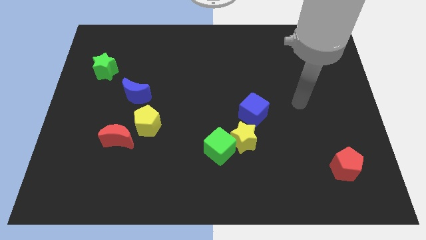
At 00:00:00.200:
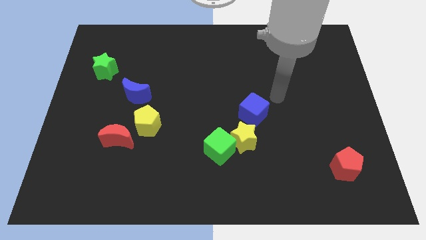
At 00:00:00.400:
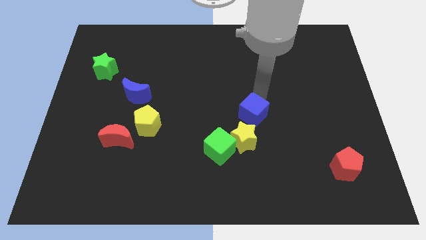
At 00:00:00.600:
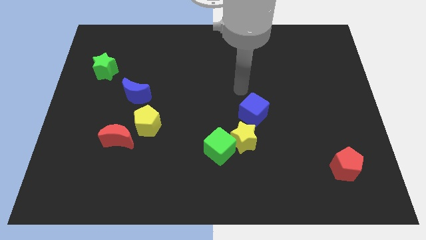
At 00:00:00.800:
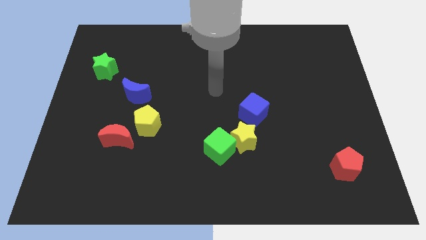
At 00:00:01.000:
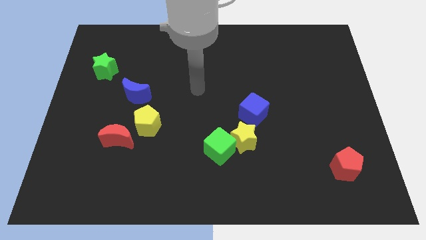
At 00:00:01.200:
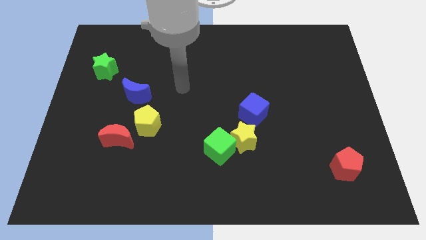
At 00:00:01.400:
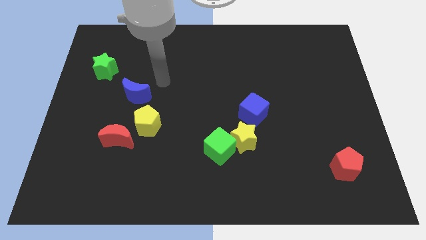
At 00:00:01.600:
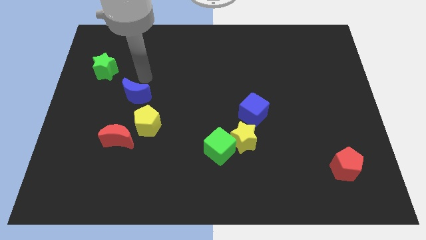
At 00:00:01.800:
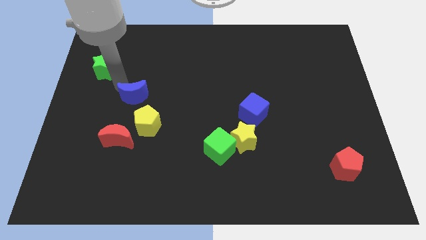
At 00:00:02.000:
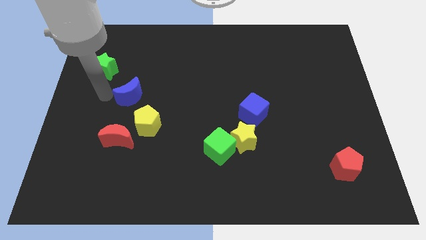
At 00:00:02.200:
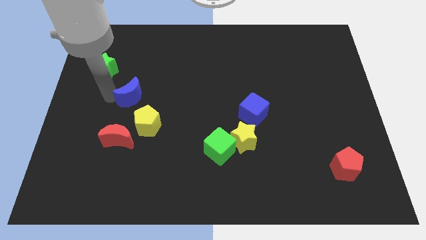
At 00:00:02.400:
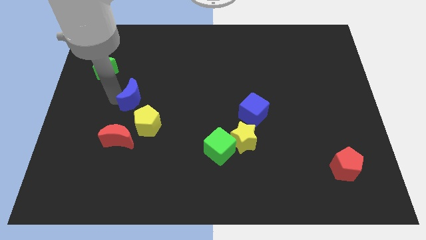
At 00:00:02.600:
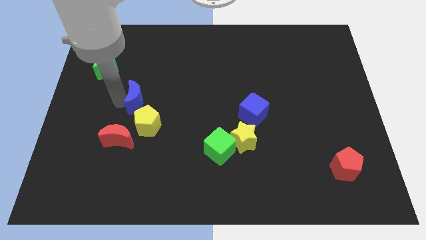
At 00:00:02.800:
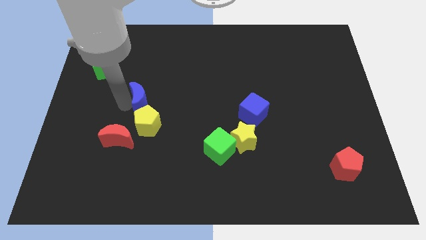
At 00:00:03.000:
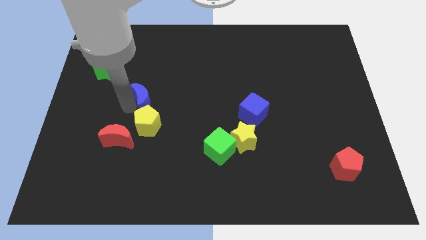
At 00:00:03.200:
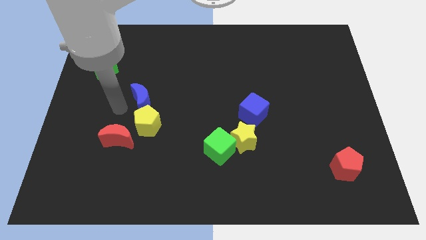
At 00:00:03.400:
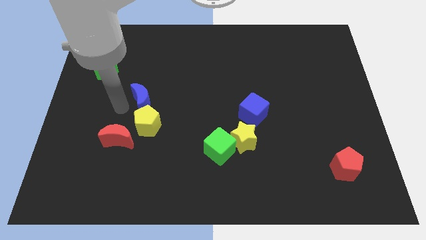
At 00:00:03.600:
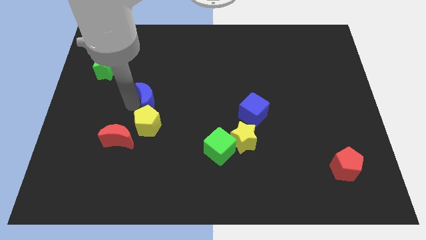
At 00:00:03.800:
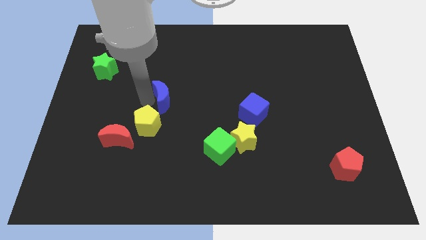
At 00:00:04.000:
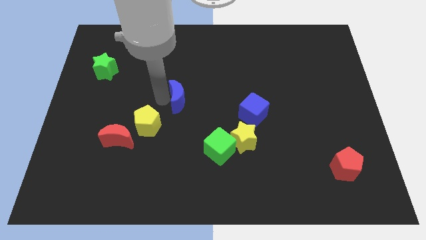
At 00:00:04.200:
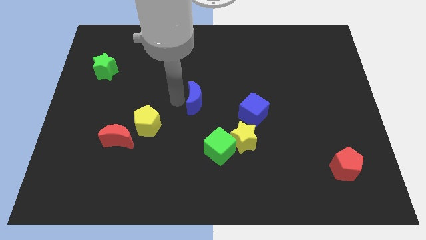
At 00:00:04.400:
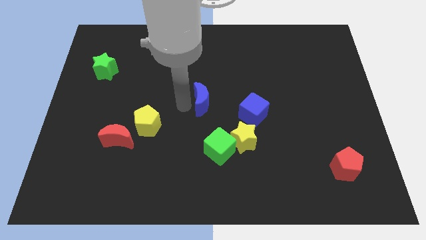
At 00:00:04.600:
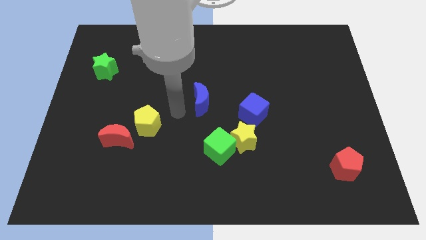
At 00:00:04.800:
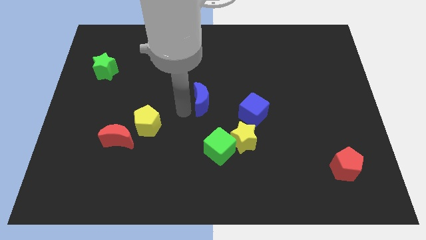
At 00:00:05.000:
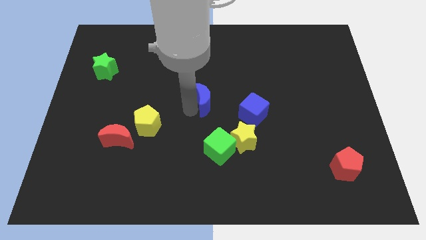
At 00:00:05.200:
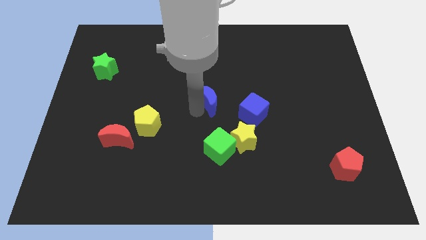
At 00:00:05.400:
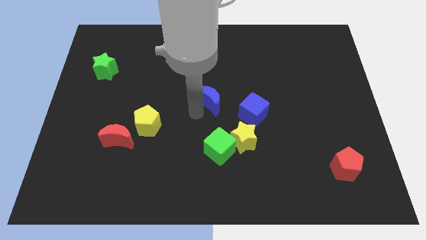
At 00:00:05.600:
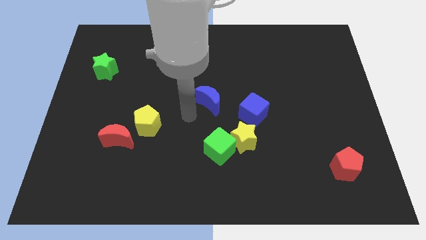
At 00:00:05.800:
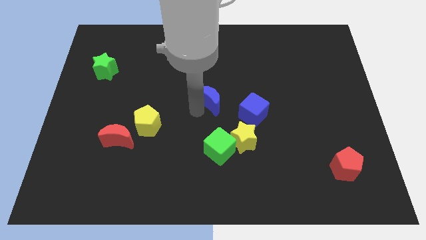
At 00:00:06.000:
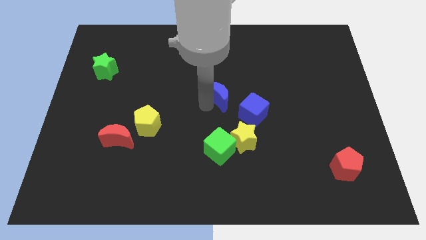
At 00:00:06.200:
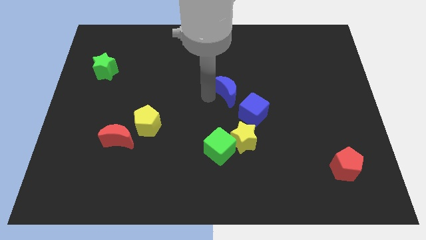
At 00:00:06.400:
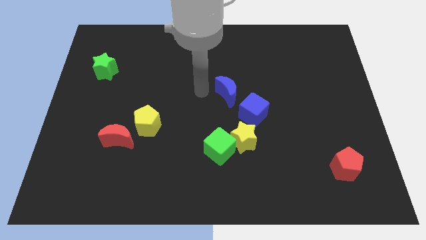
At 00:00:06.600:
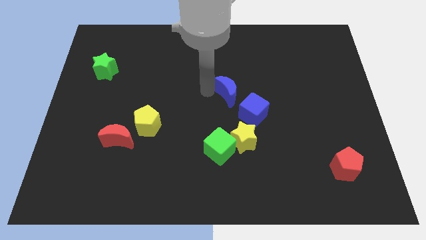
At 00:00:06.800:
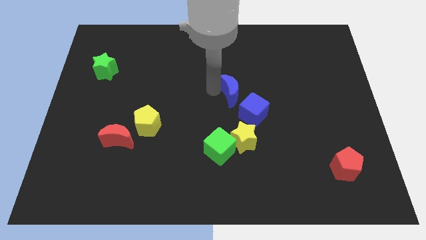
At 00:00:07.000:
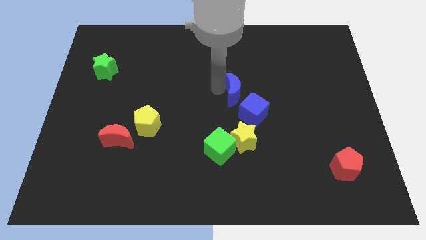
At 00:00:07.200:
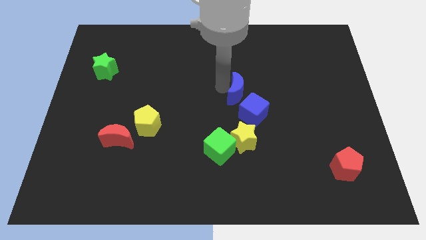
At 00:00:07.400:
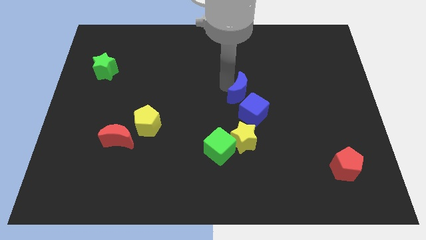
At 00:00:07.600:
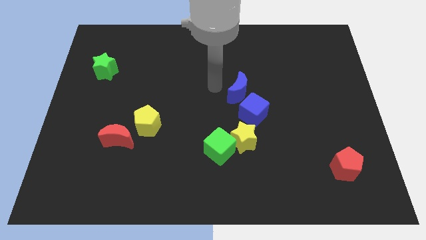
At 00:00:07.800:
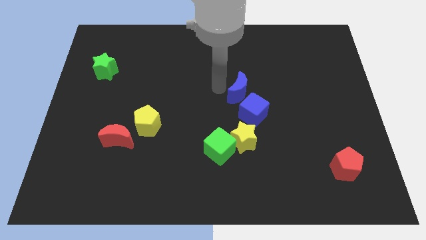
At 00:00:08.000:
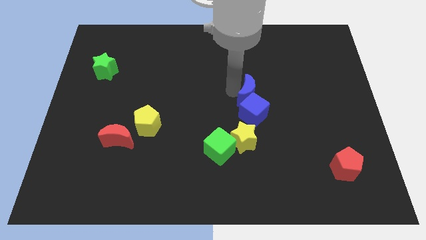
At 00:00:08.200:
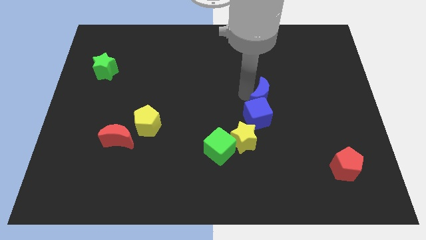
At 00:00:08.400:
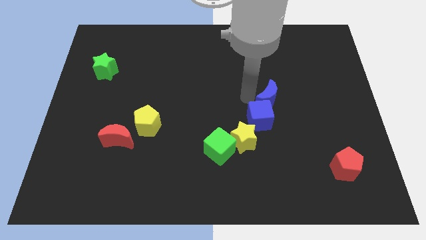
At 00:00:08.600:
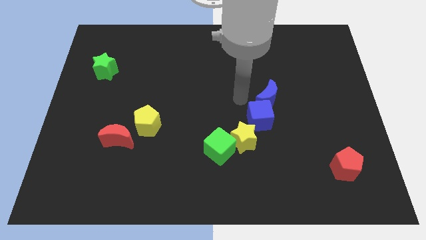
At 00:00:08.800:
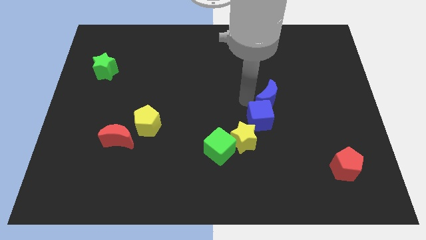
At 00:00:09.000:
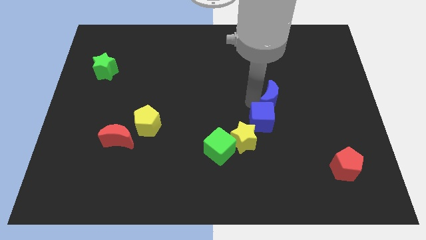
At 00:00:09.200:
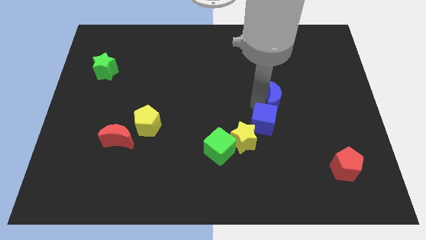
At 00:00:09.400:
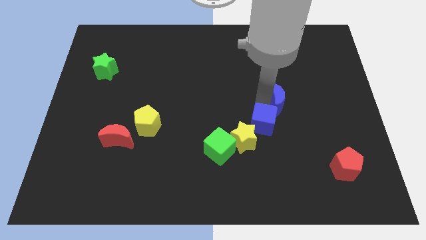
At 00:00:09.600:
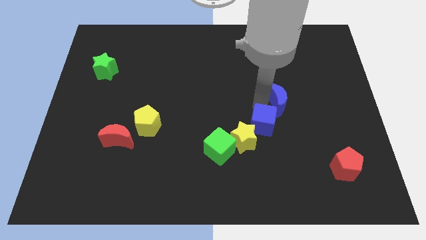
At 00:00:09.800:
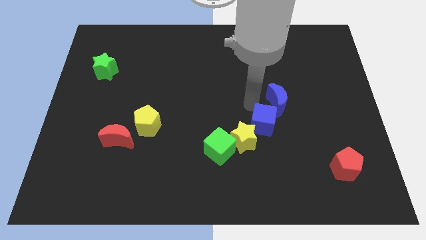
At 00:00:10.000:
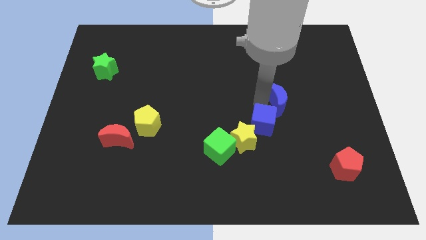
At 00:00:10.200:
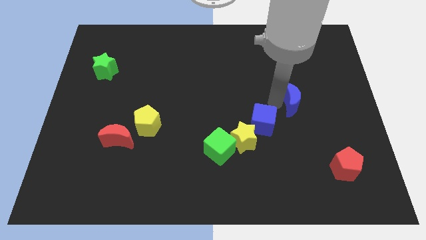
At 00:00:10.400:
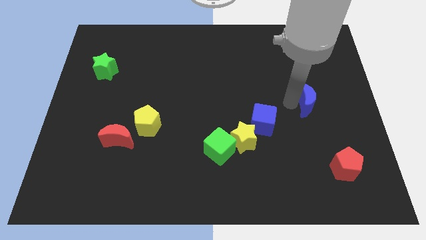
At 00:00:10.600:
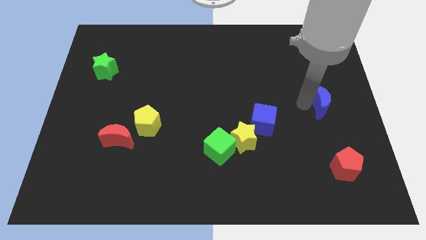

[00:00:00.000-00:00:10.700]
slide the blue moon to the center right
